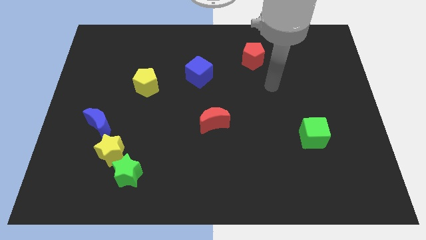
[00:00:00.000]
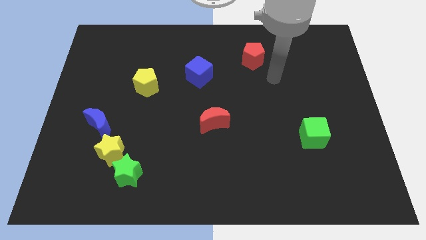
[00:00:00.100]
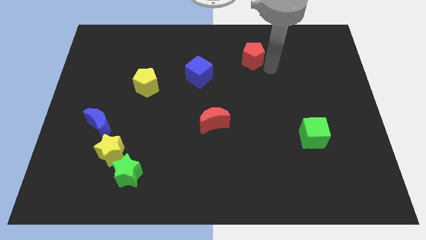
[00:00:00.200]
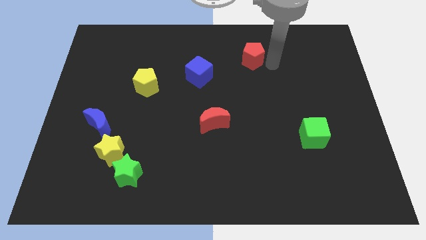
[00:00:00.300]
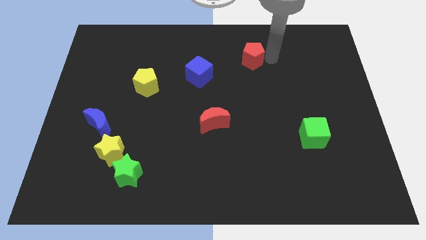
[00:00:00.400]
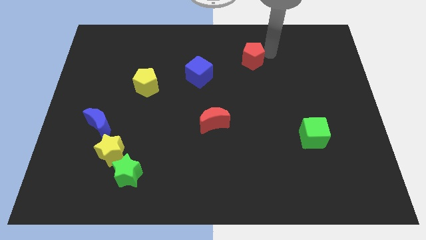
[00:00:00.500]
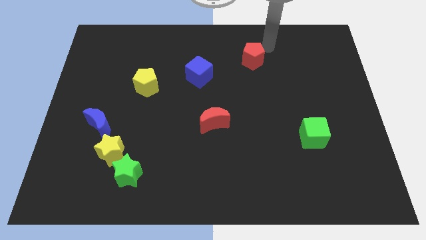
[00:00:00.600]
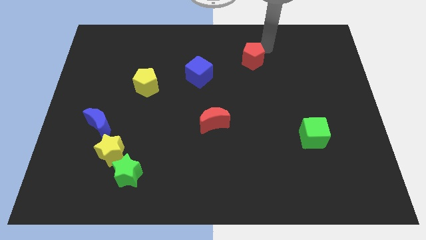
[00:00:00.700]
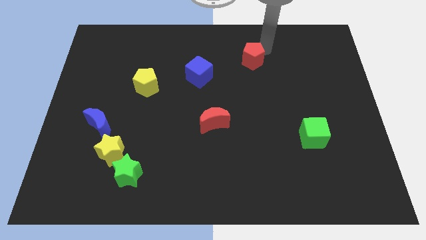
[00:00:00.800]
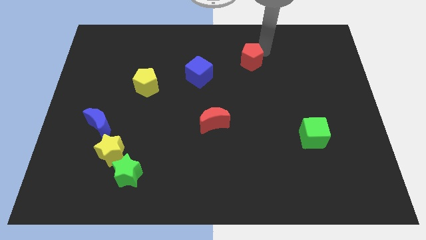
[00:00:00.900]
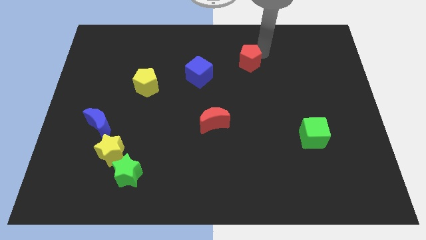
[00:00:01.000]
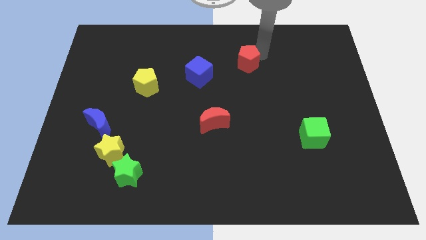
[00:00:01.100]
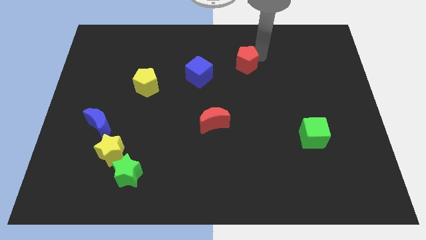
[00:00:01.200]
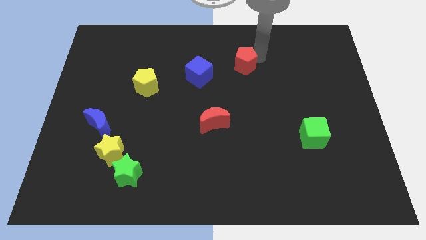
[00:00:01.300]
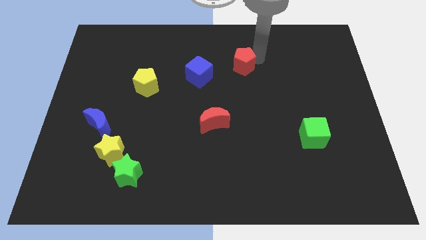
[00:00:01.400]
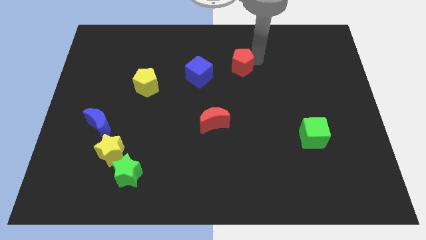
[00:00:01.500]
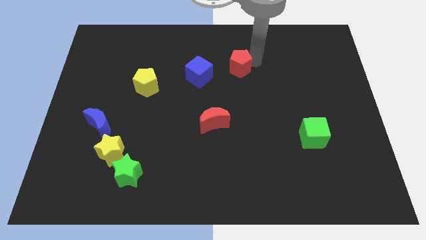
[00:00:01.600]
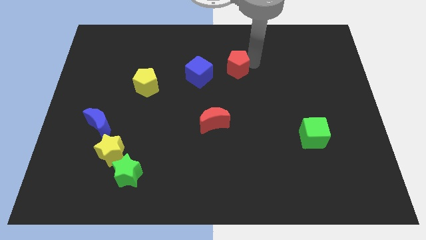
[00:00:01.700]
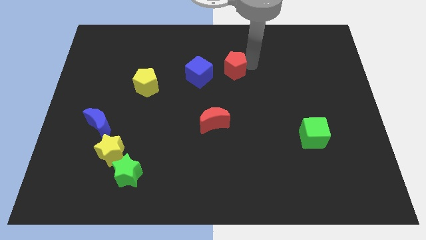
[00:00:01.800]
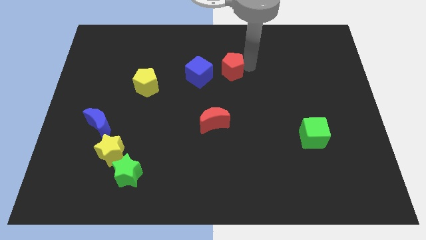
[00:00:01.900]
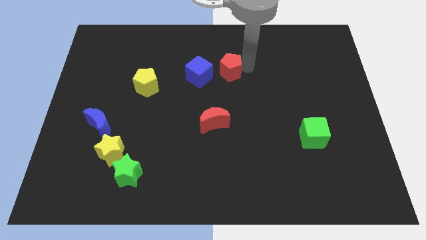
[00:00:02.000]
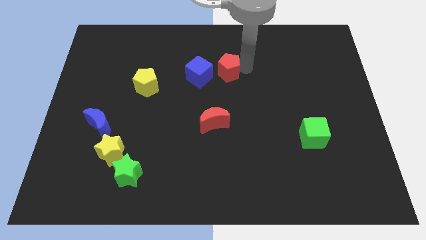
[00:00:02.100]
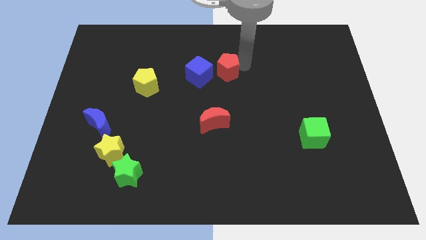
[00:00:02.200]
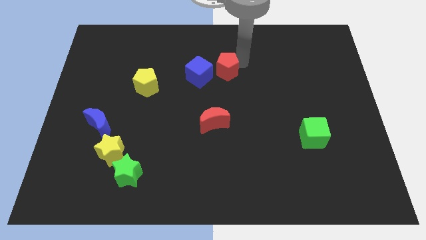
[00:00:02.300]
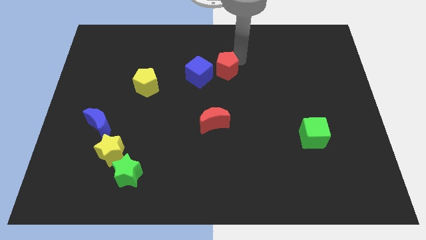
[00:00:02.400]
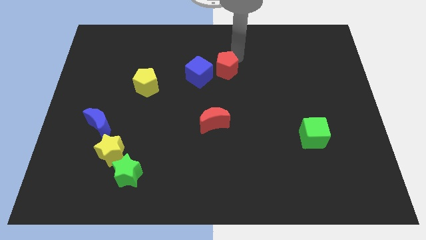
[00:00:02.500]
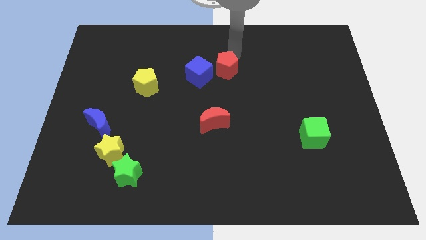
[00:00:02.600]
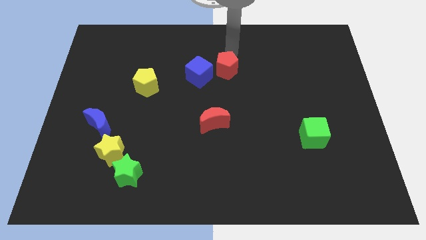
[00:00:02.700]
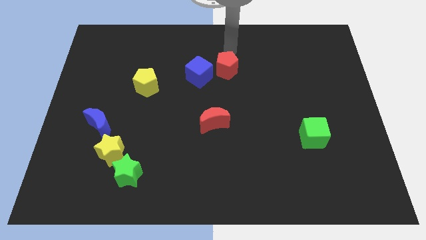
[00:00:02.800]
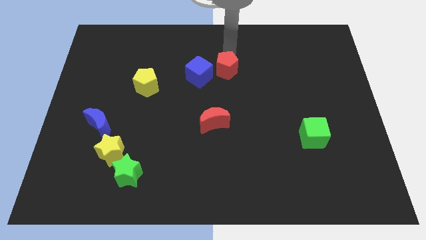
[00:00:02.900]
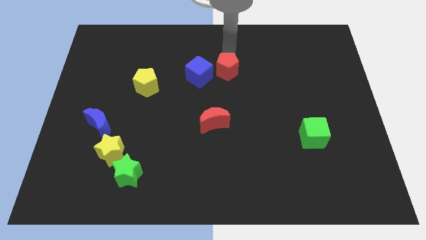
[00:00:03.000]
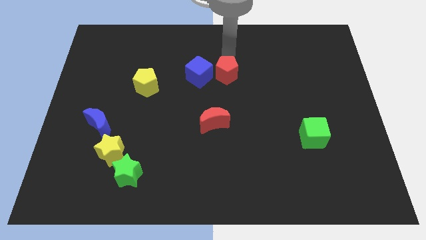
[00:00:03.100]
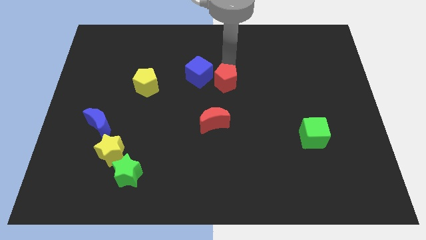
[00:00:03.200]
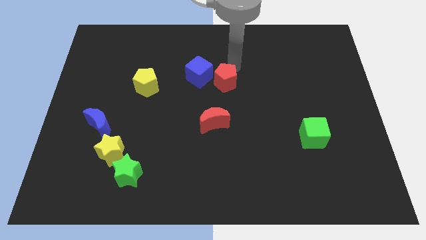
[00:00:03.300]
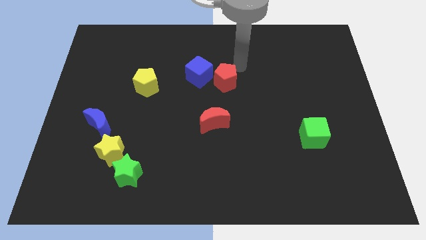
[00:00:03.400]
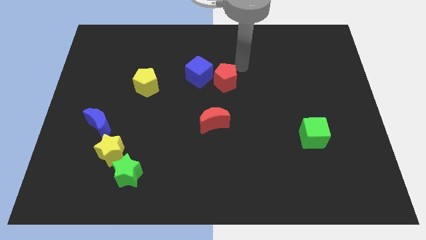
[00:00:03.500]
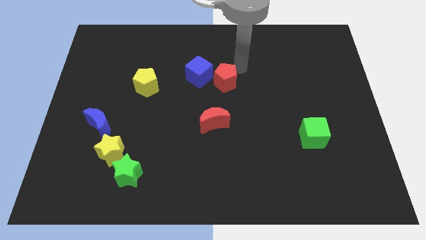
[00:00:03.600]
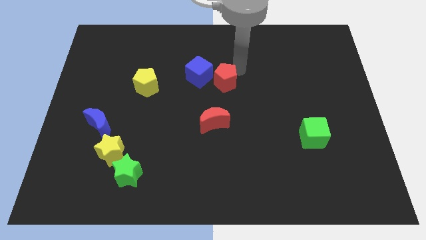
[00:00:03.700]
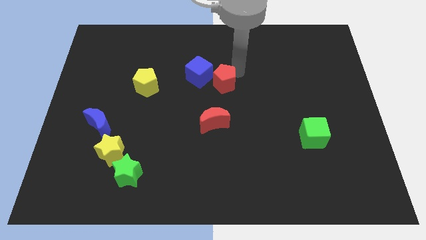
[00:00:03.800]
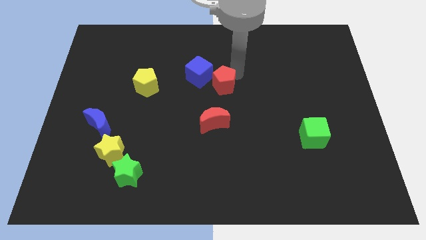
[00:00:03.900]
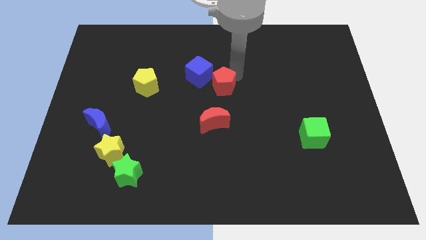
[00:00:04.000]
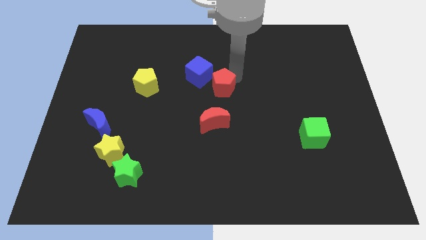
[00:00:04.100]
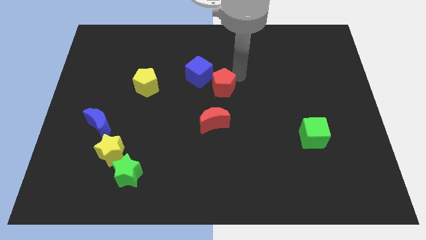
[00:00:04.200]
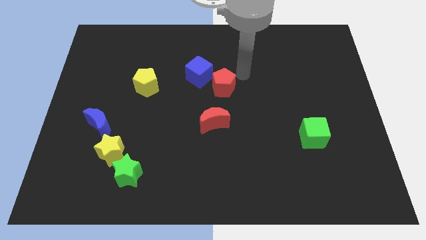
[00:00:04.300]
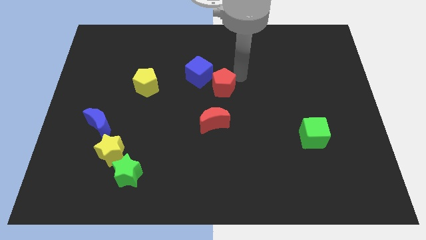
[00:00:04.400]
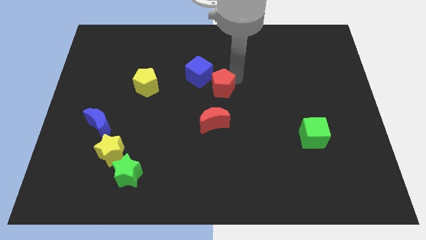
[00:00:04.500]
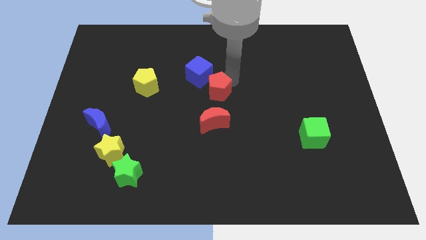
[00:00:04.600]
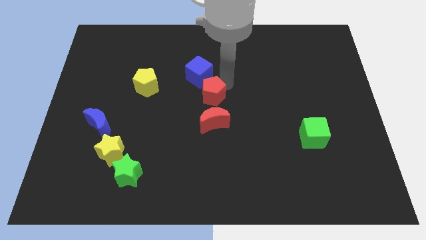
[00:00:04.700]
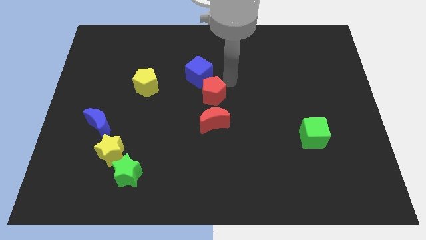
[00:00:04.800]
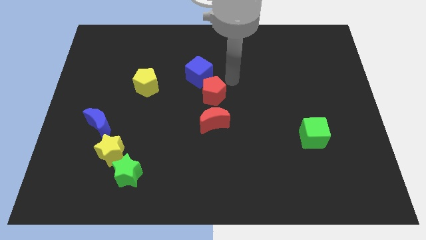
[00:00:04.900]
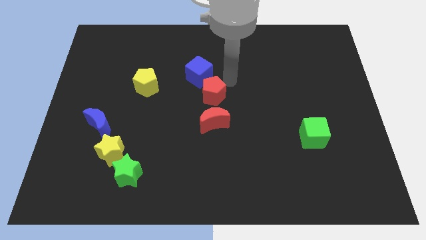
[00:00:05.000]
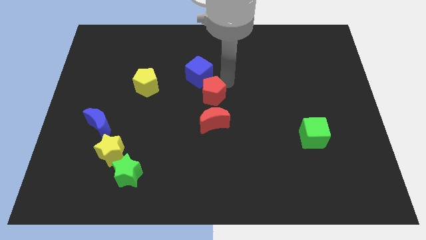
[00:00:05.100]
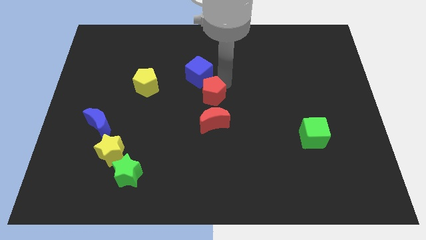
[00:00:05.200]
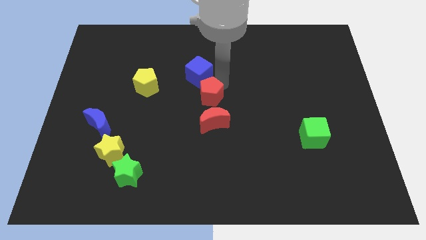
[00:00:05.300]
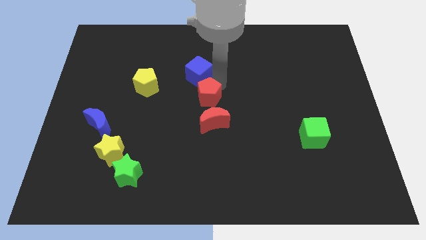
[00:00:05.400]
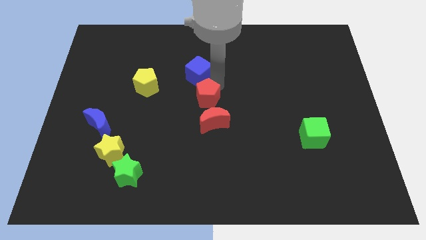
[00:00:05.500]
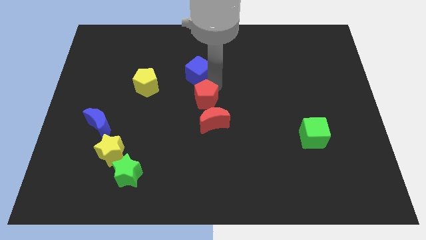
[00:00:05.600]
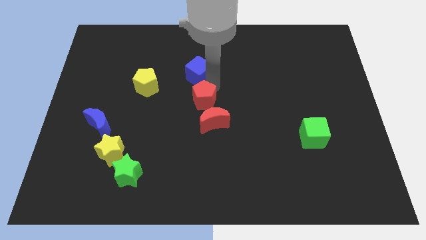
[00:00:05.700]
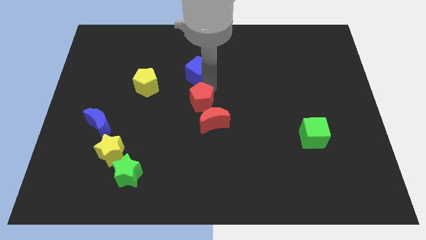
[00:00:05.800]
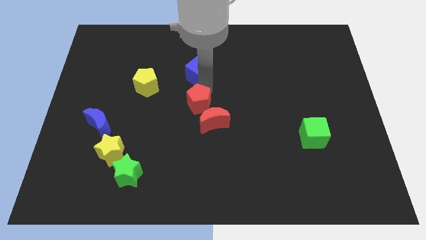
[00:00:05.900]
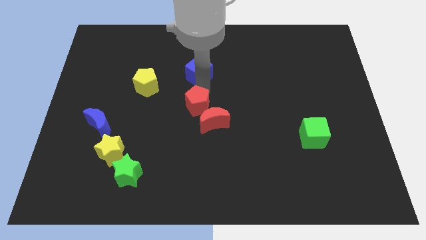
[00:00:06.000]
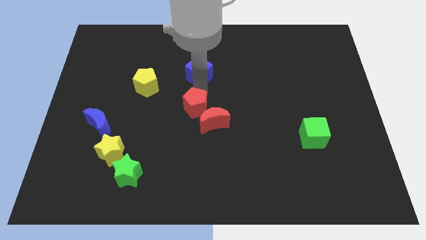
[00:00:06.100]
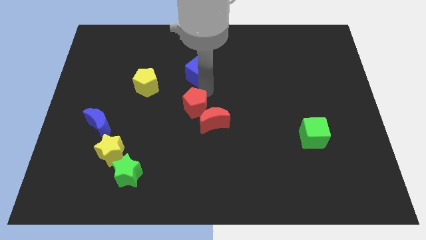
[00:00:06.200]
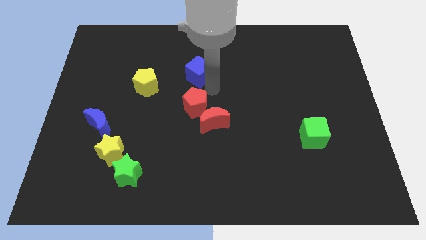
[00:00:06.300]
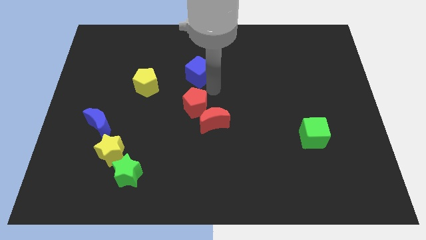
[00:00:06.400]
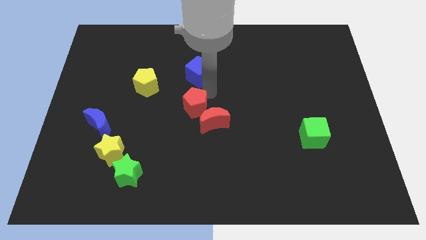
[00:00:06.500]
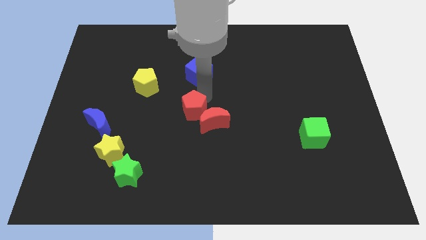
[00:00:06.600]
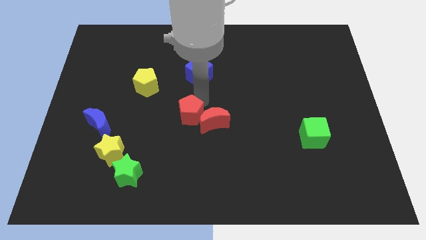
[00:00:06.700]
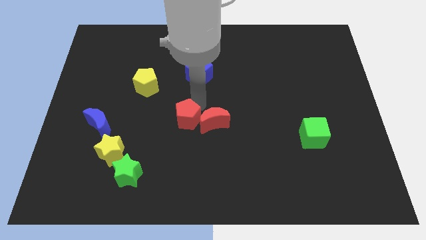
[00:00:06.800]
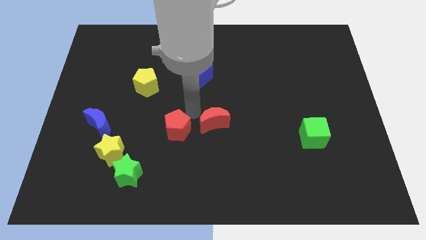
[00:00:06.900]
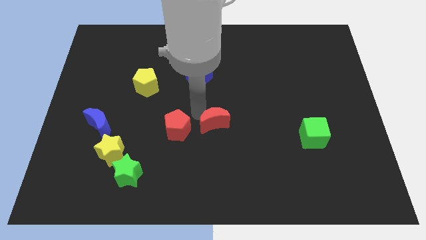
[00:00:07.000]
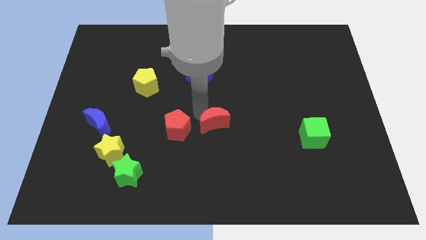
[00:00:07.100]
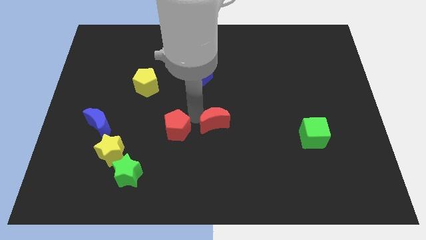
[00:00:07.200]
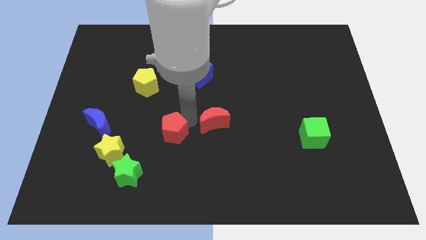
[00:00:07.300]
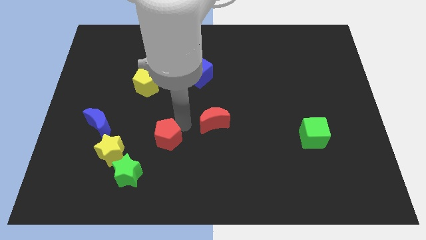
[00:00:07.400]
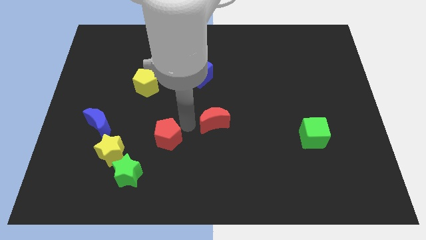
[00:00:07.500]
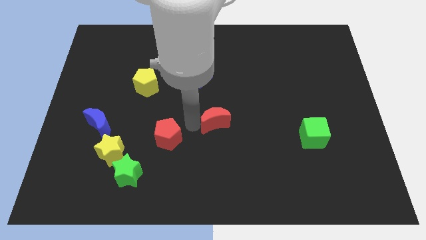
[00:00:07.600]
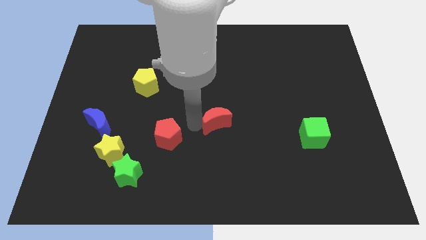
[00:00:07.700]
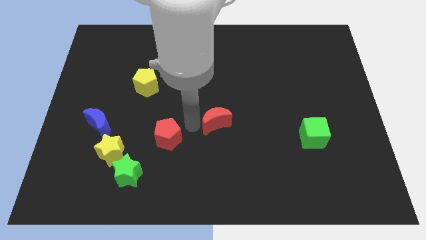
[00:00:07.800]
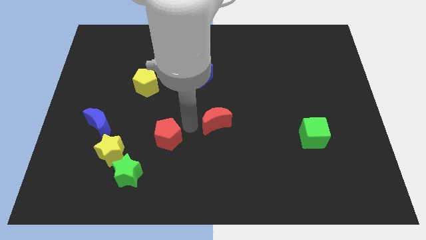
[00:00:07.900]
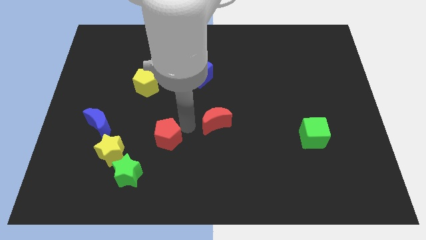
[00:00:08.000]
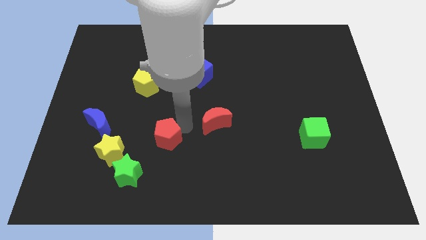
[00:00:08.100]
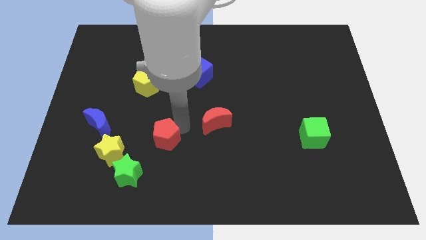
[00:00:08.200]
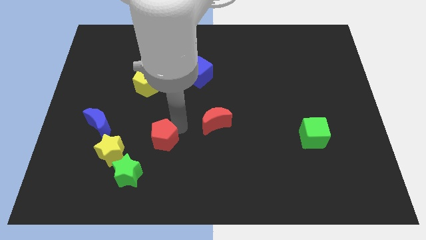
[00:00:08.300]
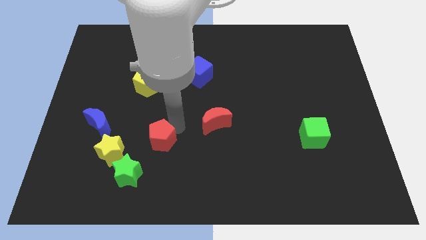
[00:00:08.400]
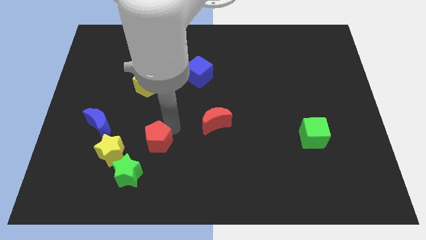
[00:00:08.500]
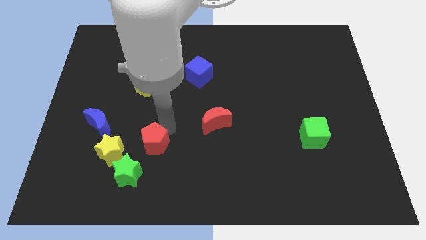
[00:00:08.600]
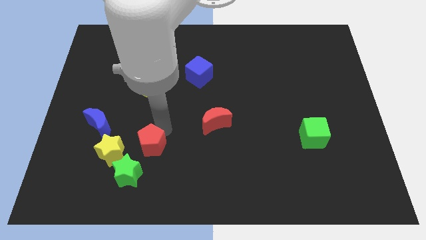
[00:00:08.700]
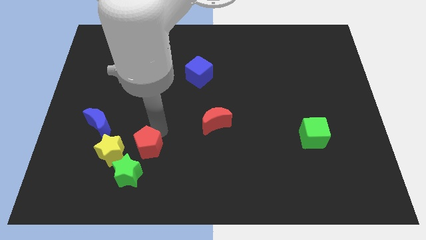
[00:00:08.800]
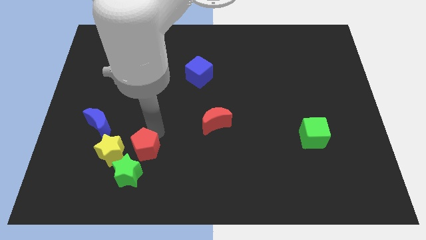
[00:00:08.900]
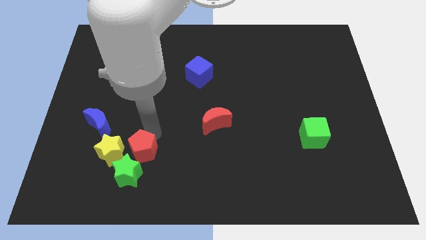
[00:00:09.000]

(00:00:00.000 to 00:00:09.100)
move the red pentagon close to the green star
